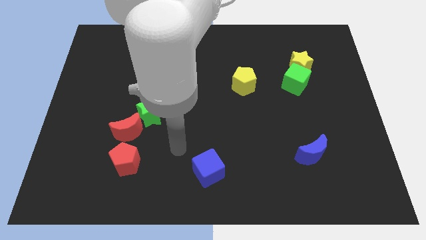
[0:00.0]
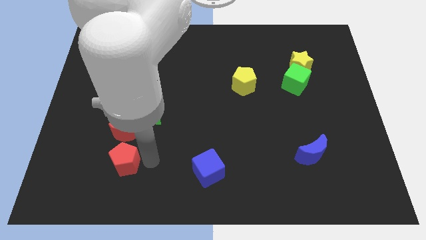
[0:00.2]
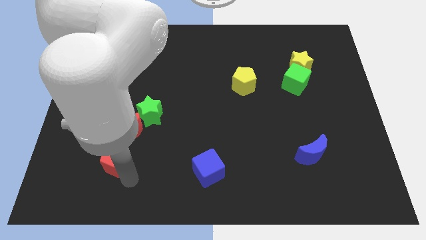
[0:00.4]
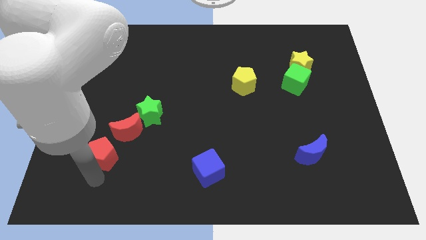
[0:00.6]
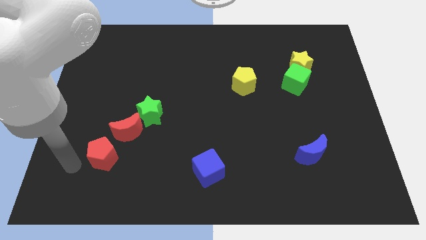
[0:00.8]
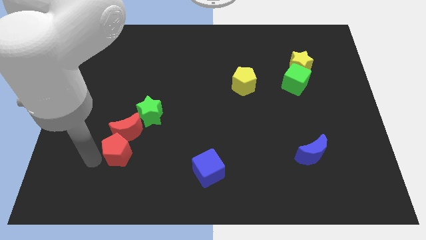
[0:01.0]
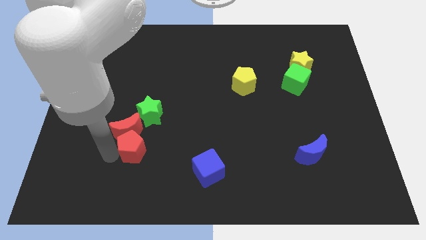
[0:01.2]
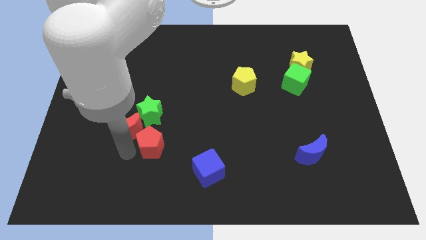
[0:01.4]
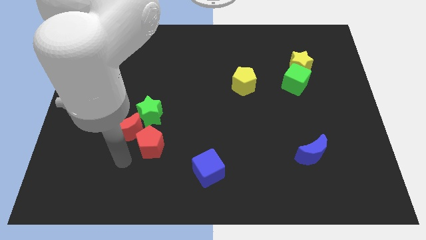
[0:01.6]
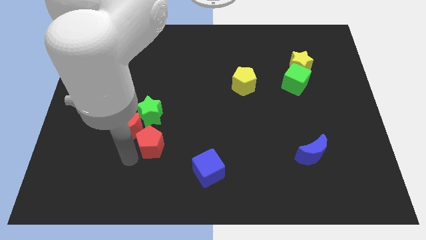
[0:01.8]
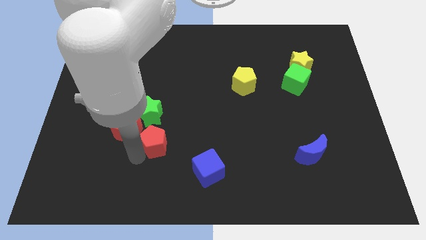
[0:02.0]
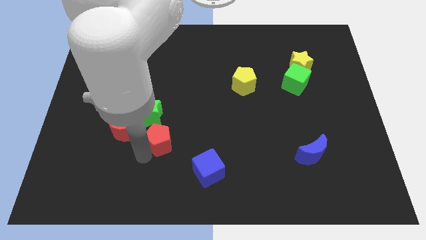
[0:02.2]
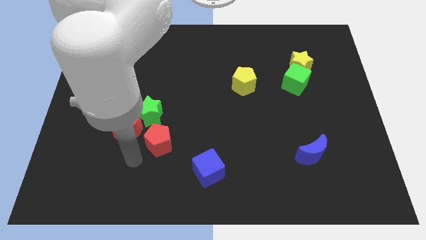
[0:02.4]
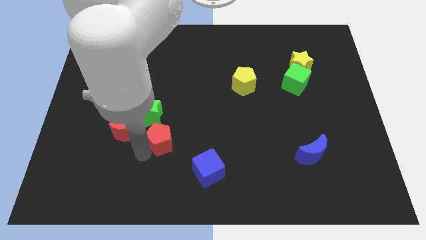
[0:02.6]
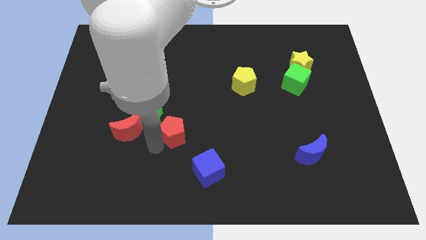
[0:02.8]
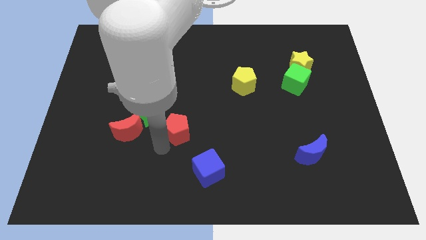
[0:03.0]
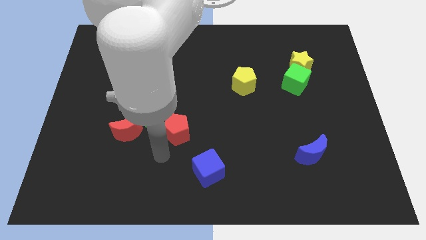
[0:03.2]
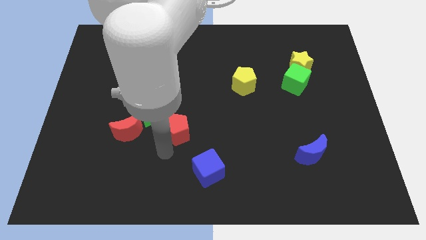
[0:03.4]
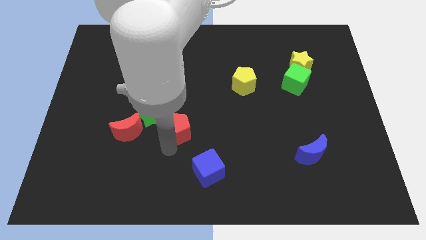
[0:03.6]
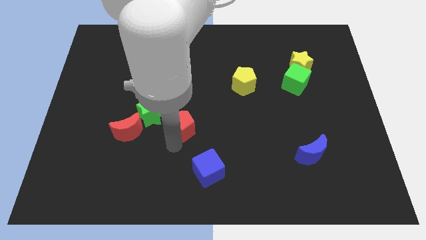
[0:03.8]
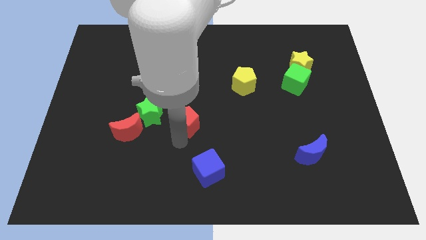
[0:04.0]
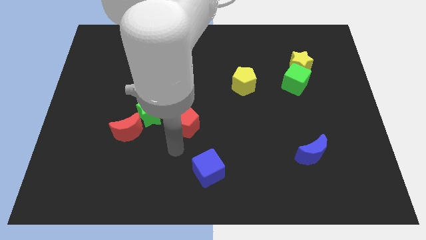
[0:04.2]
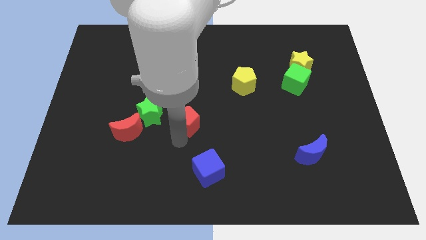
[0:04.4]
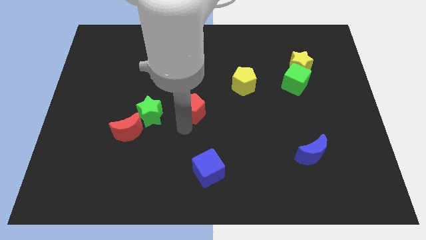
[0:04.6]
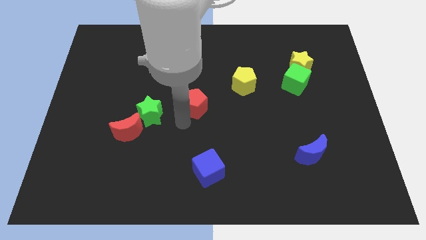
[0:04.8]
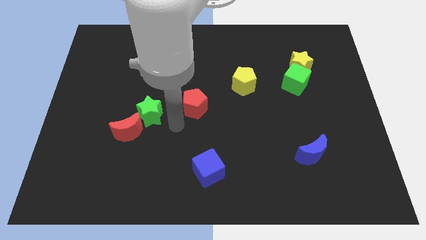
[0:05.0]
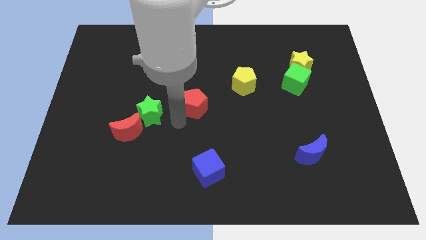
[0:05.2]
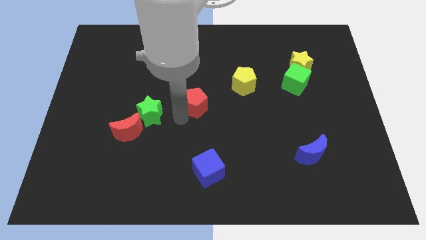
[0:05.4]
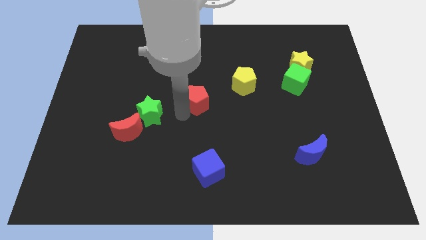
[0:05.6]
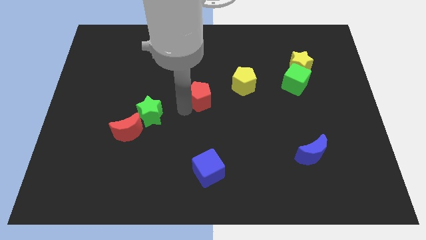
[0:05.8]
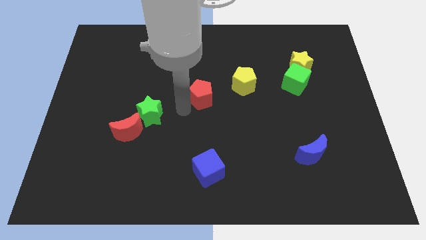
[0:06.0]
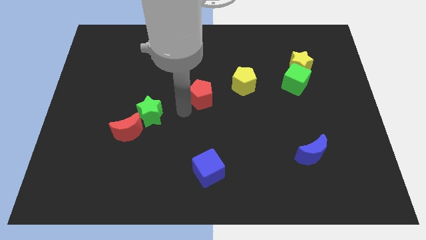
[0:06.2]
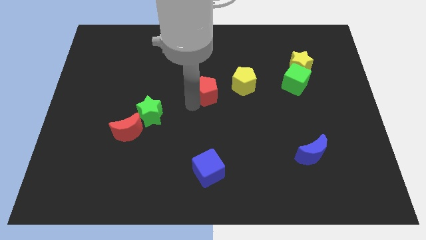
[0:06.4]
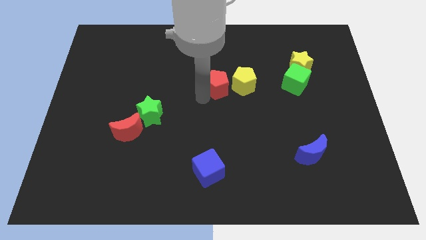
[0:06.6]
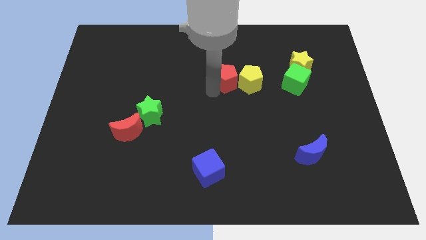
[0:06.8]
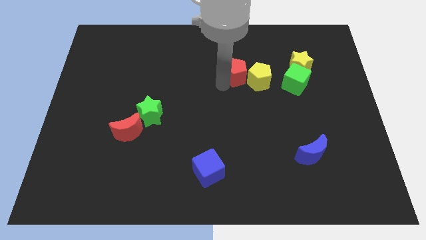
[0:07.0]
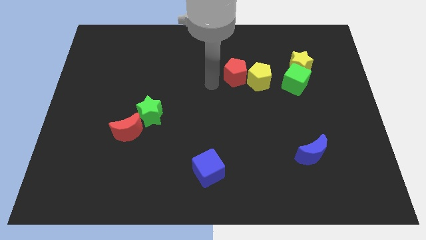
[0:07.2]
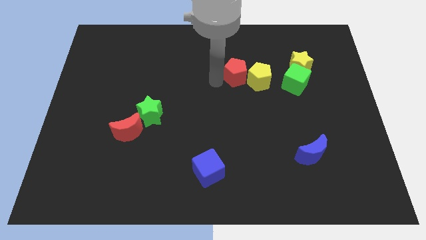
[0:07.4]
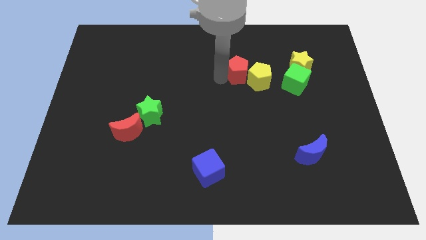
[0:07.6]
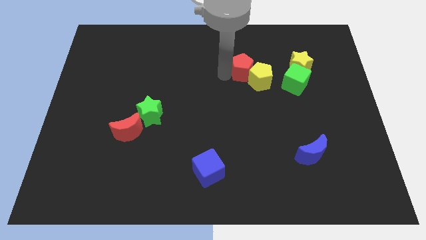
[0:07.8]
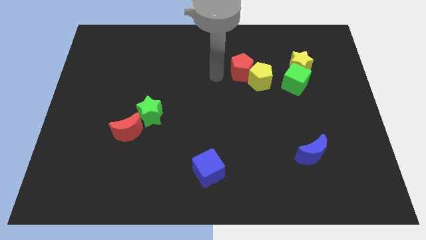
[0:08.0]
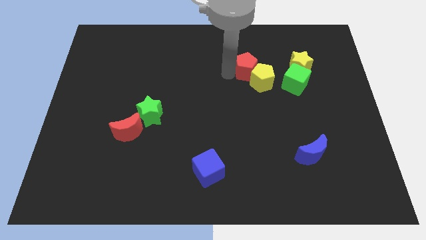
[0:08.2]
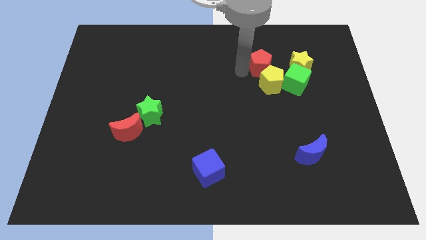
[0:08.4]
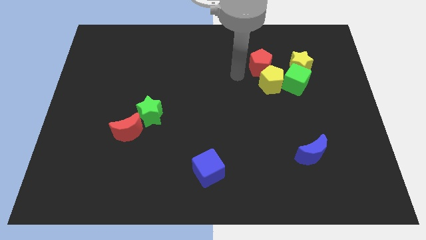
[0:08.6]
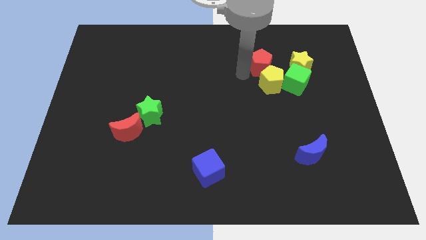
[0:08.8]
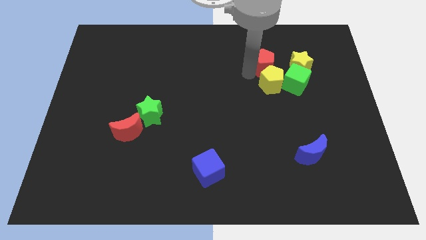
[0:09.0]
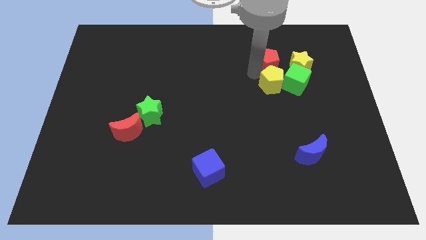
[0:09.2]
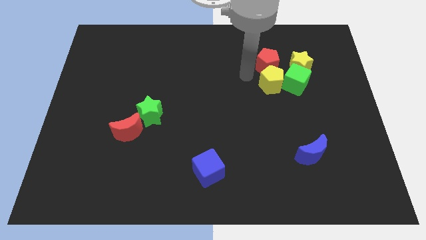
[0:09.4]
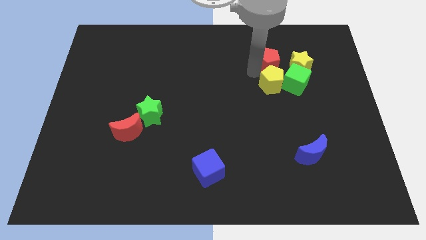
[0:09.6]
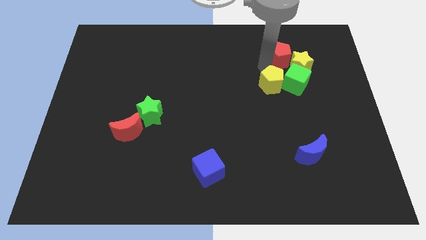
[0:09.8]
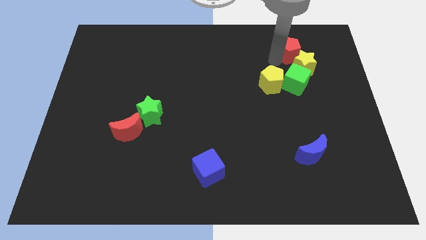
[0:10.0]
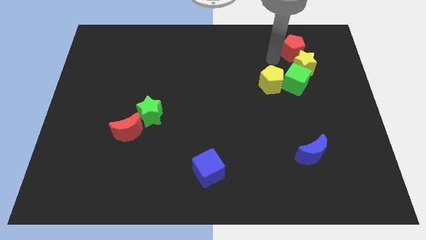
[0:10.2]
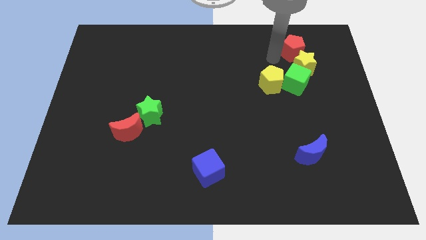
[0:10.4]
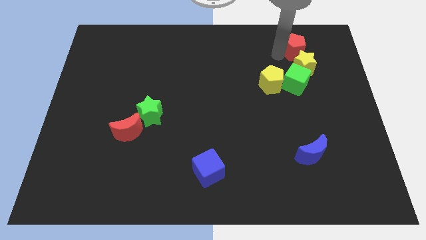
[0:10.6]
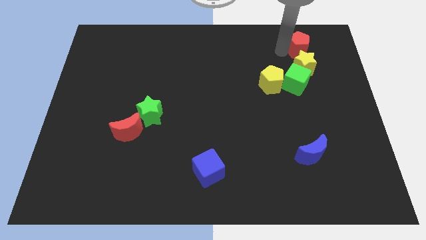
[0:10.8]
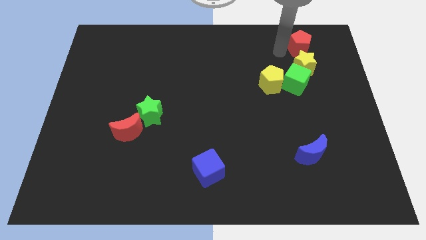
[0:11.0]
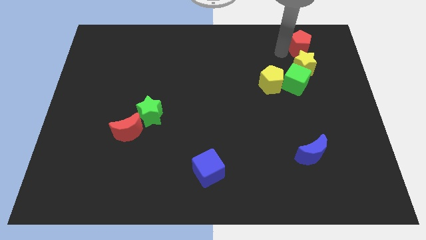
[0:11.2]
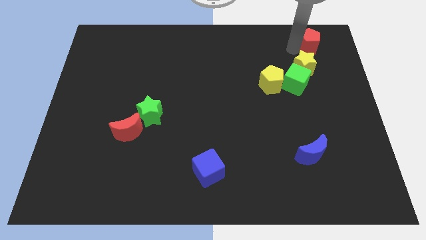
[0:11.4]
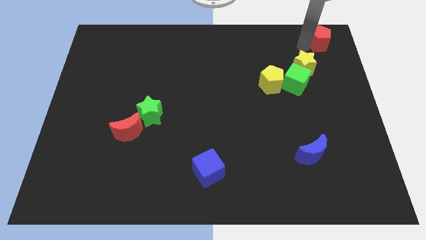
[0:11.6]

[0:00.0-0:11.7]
move the red pentagon to the top right of the board
